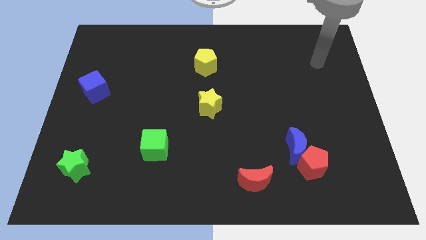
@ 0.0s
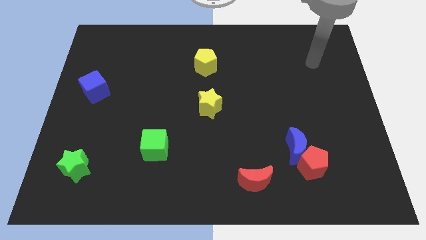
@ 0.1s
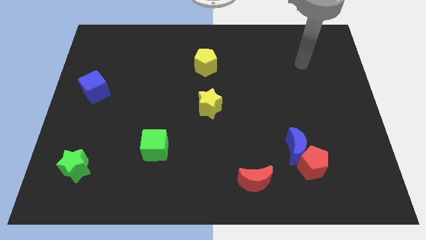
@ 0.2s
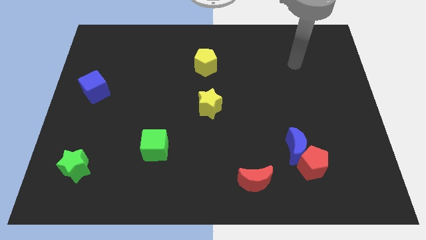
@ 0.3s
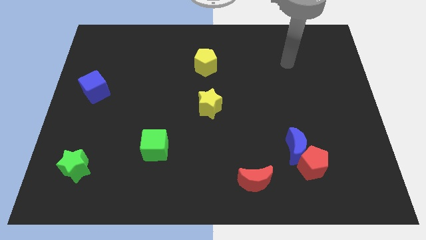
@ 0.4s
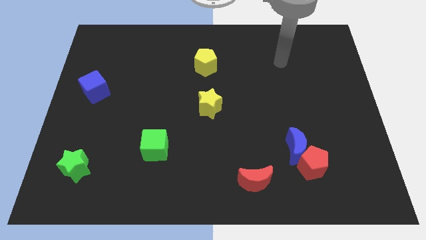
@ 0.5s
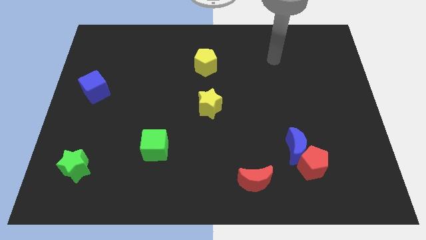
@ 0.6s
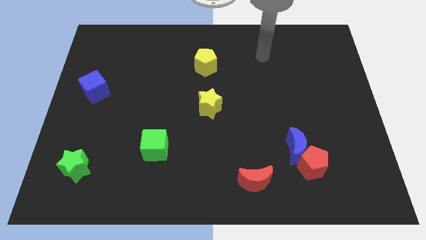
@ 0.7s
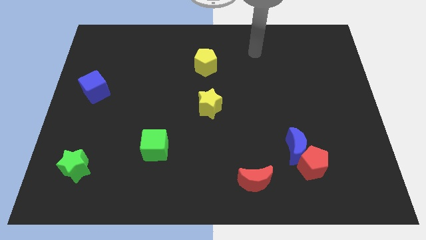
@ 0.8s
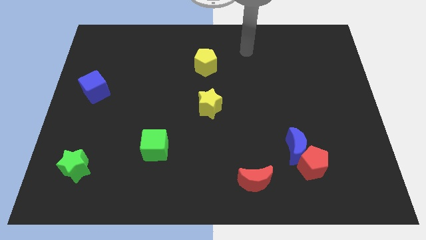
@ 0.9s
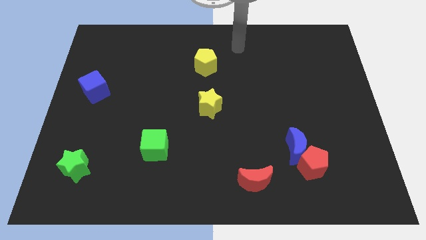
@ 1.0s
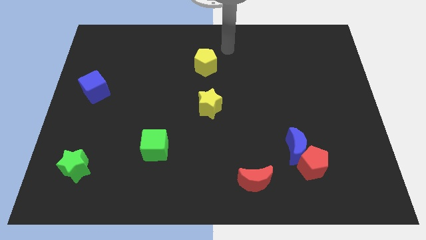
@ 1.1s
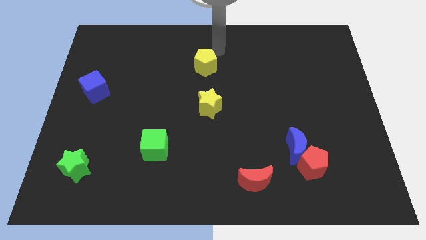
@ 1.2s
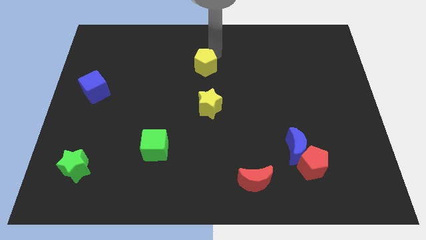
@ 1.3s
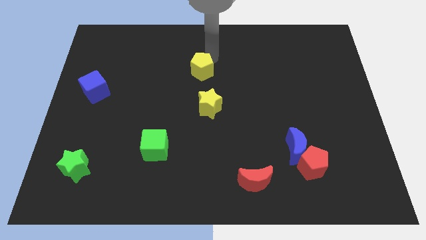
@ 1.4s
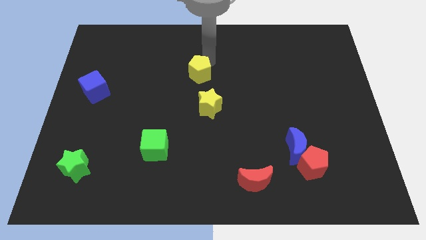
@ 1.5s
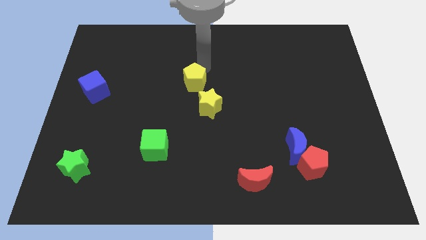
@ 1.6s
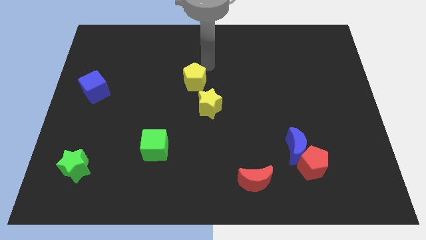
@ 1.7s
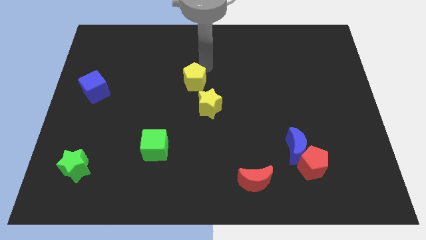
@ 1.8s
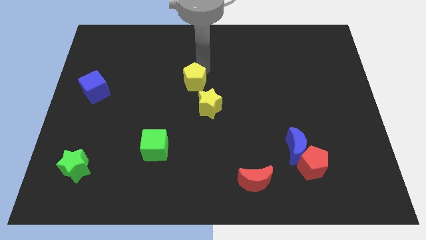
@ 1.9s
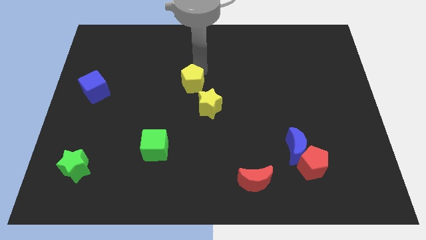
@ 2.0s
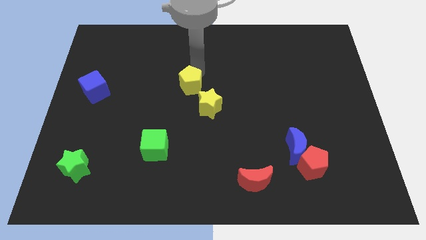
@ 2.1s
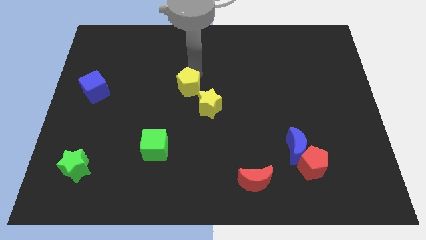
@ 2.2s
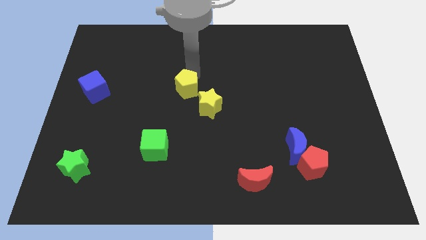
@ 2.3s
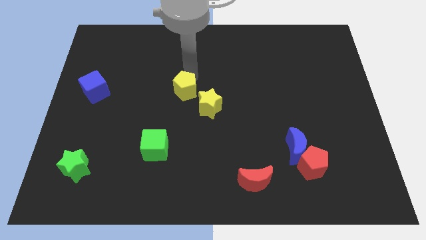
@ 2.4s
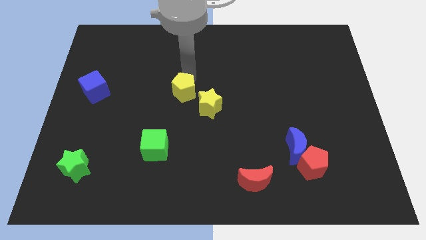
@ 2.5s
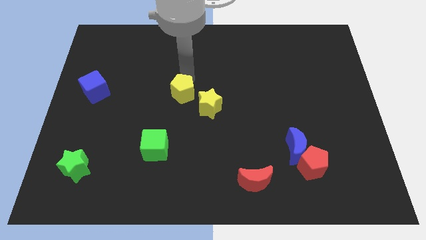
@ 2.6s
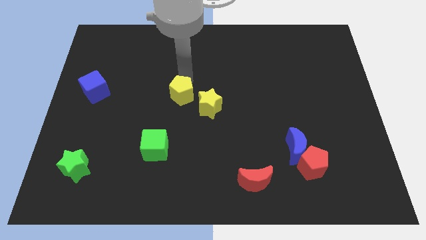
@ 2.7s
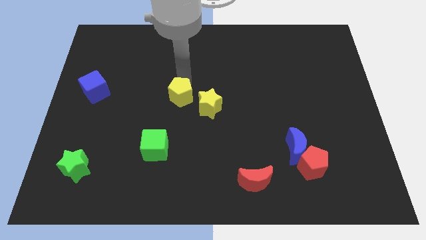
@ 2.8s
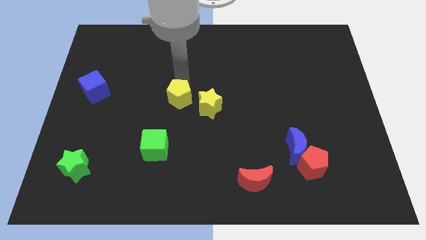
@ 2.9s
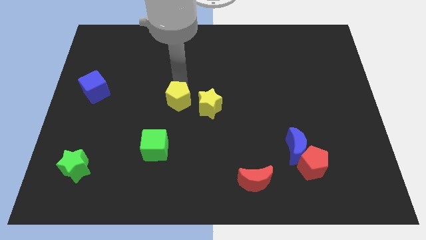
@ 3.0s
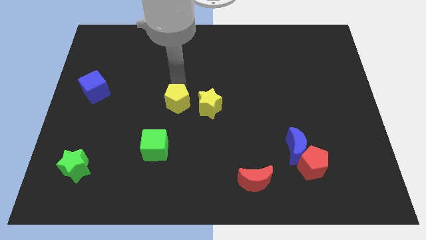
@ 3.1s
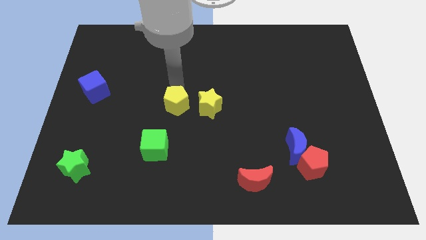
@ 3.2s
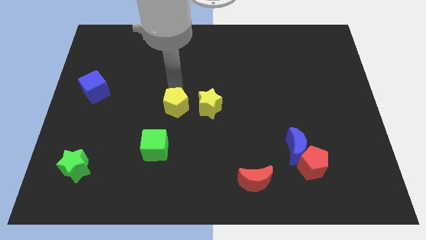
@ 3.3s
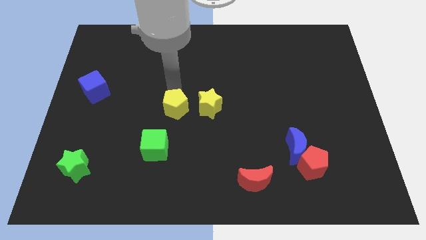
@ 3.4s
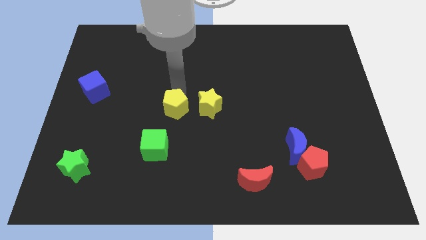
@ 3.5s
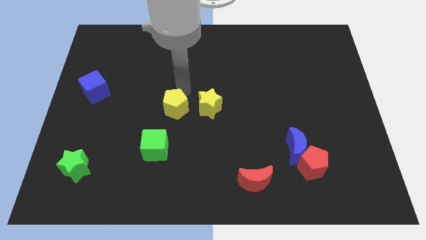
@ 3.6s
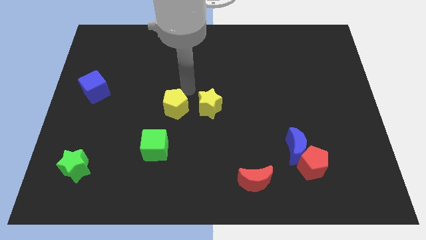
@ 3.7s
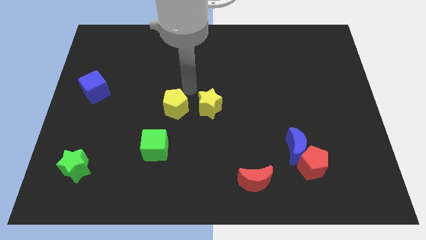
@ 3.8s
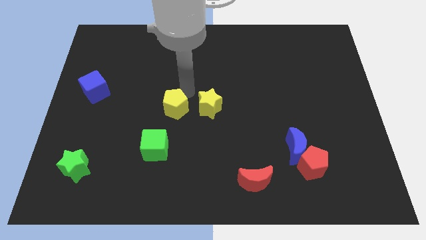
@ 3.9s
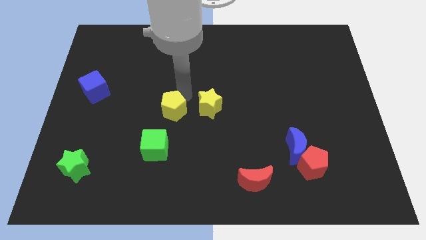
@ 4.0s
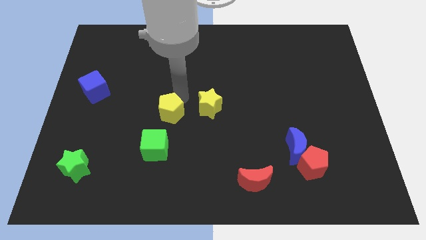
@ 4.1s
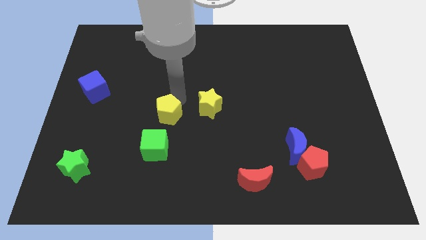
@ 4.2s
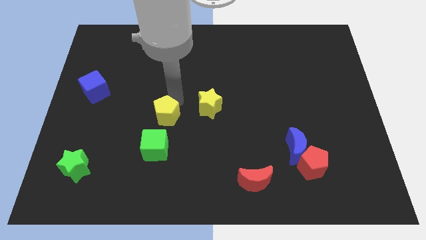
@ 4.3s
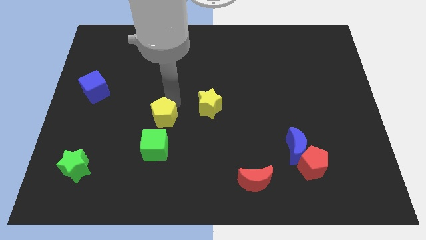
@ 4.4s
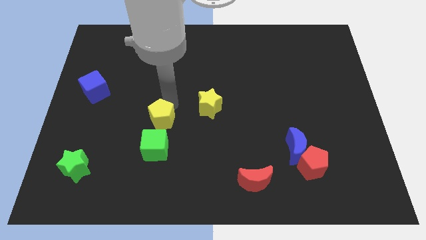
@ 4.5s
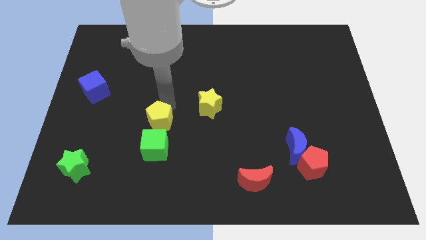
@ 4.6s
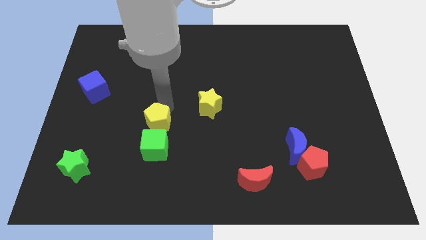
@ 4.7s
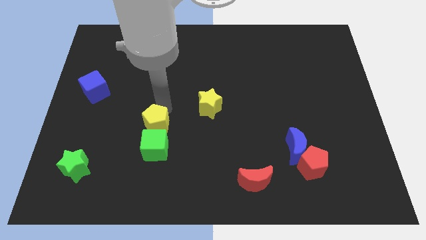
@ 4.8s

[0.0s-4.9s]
put the yellow pentagon towards the green cube

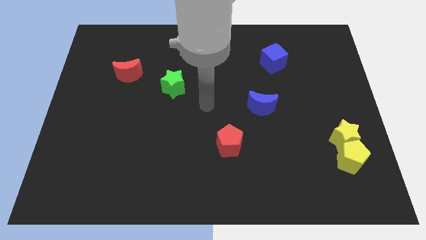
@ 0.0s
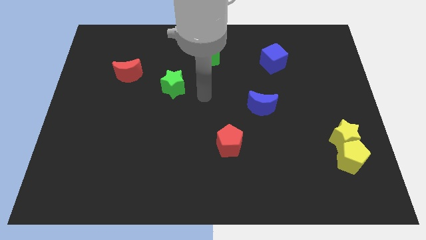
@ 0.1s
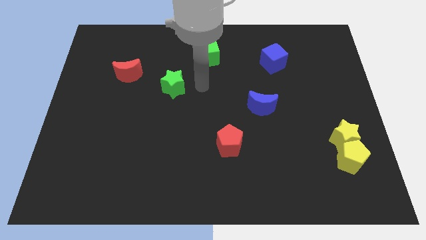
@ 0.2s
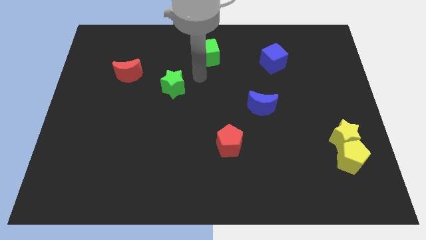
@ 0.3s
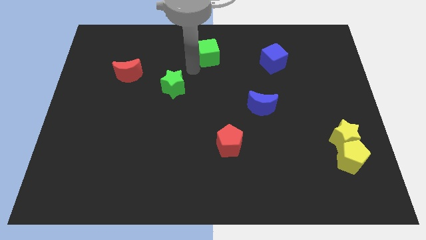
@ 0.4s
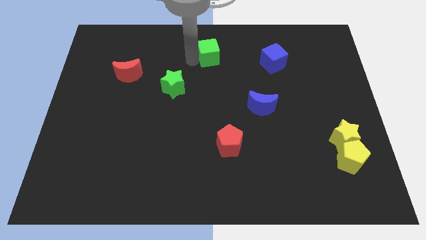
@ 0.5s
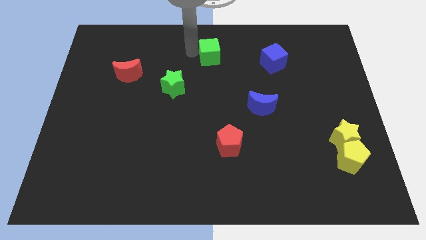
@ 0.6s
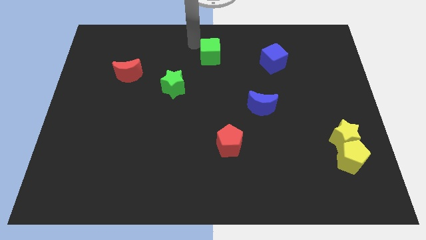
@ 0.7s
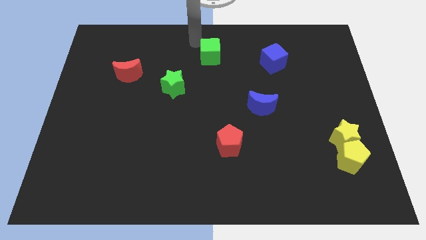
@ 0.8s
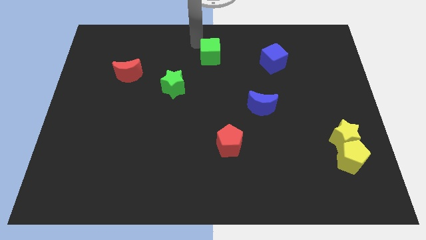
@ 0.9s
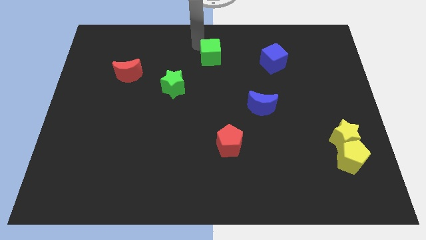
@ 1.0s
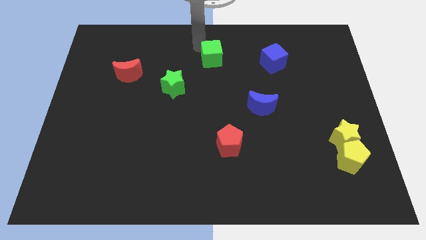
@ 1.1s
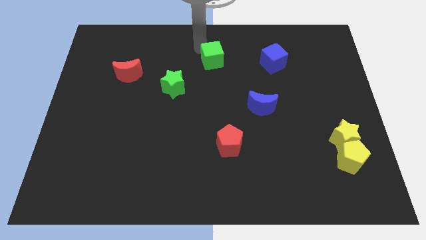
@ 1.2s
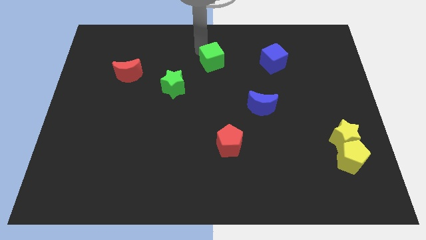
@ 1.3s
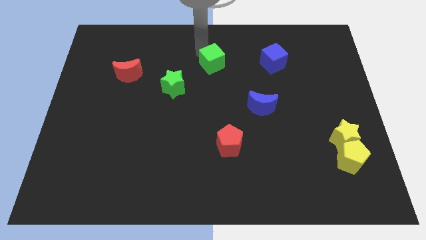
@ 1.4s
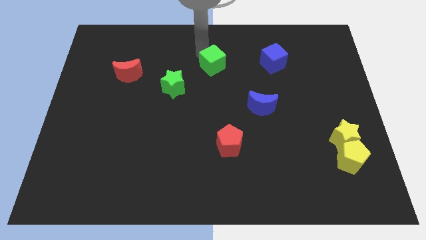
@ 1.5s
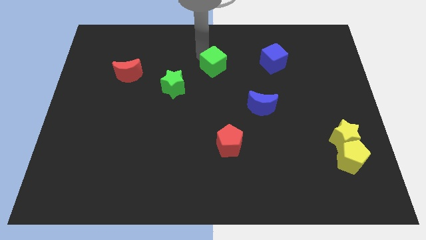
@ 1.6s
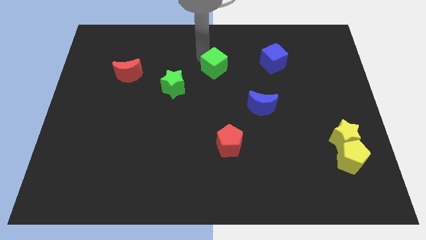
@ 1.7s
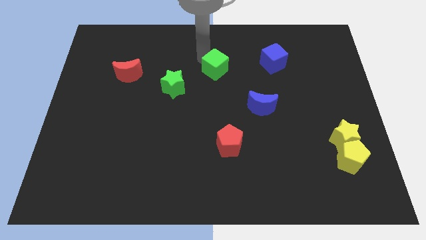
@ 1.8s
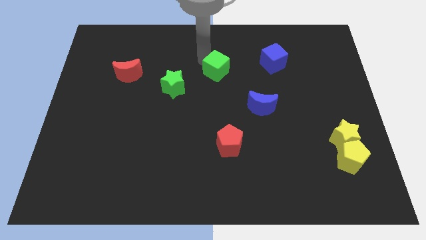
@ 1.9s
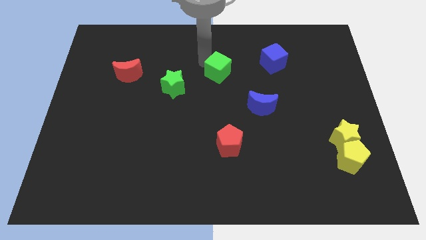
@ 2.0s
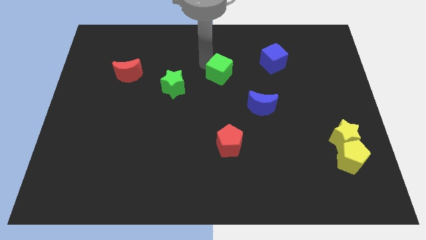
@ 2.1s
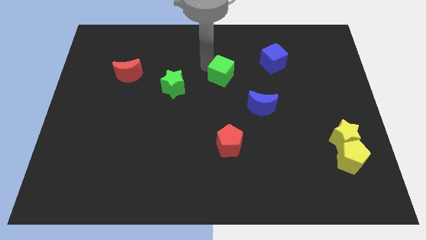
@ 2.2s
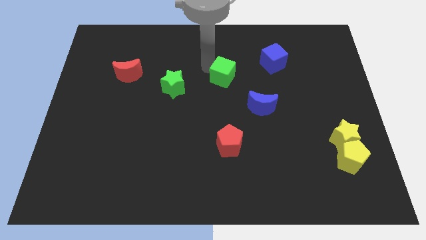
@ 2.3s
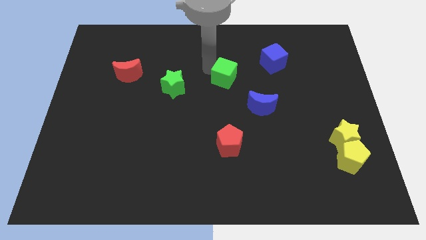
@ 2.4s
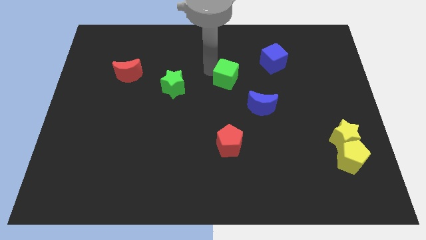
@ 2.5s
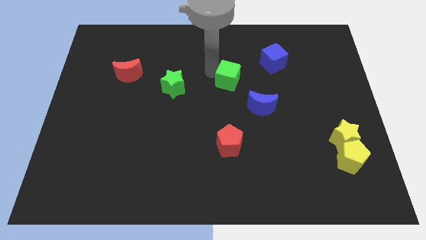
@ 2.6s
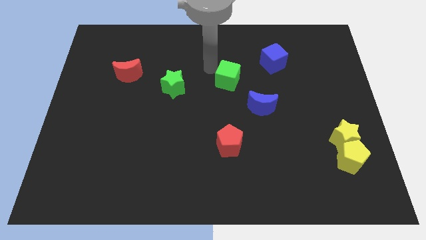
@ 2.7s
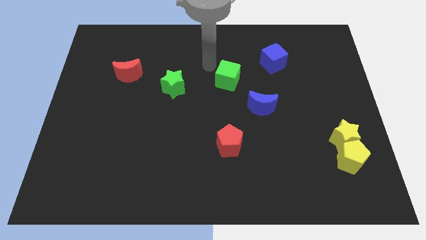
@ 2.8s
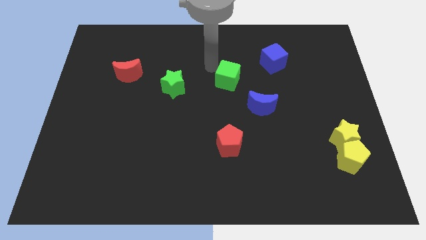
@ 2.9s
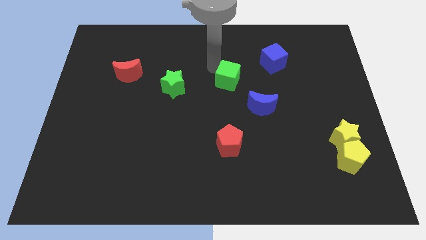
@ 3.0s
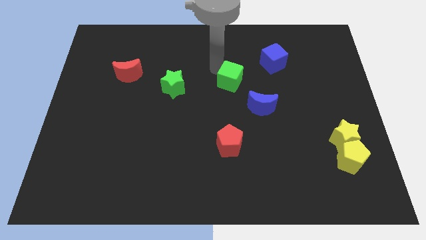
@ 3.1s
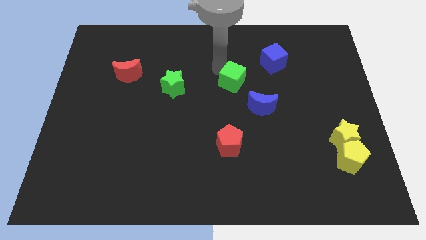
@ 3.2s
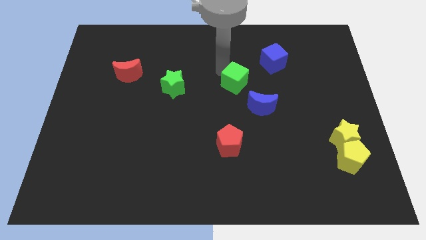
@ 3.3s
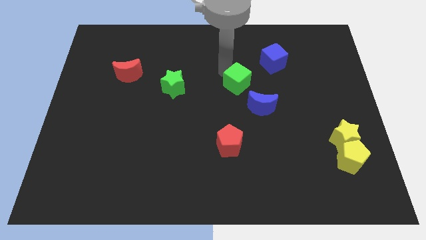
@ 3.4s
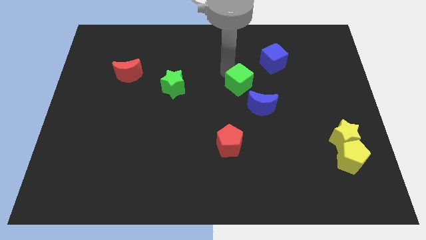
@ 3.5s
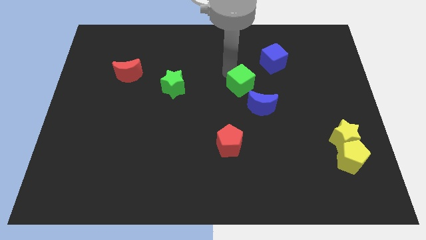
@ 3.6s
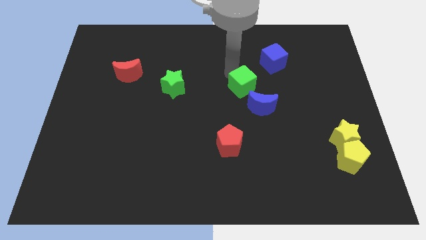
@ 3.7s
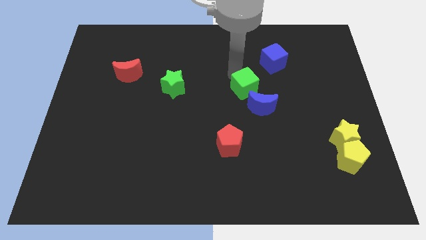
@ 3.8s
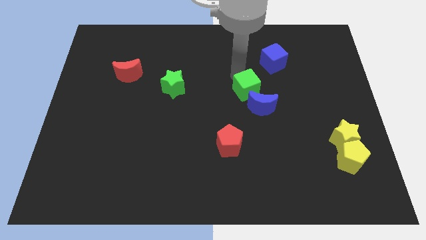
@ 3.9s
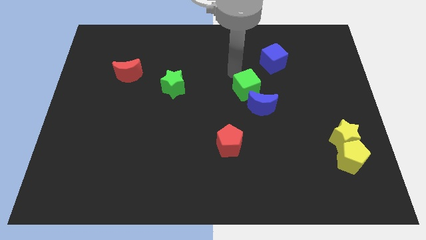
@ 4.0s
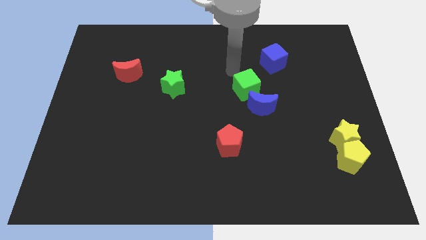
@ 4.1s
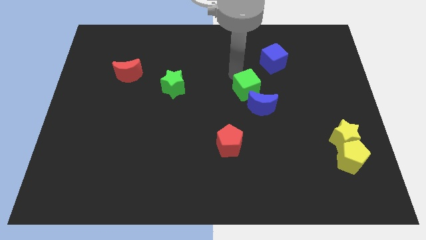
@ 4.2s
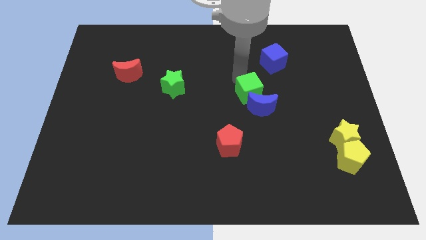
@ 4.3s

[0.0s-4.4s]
slide the green cube towards the blue moon
